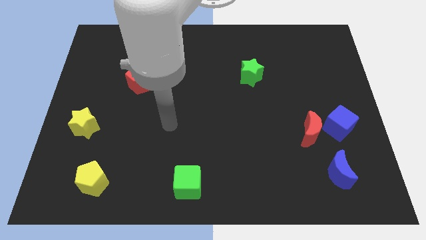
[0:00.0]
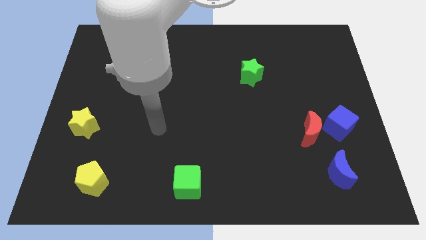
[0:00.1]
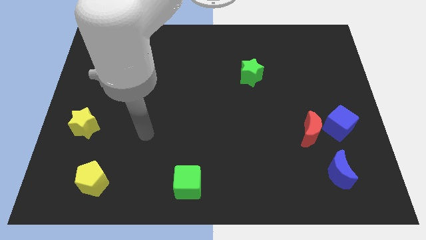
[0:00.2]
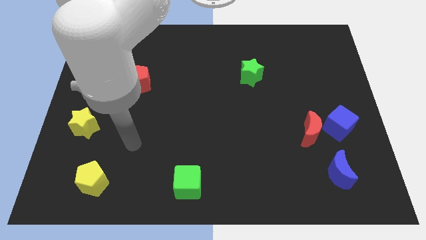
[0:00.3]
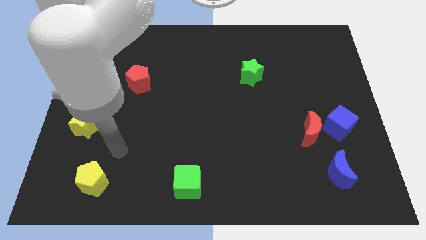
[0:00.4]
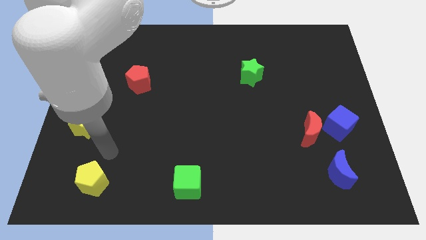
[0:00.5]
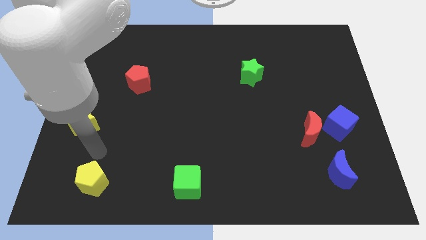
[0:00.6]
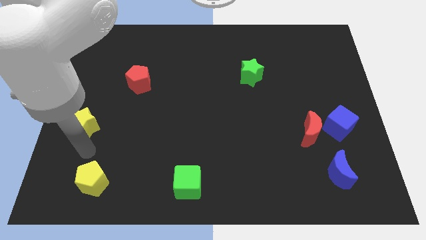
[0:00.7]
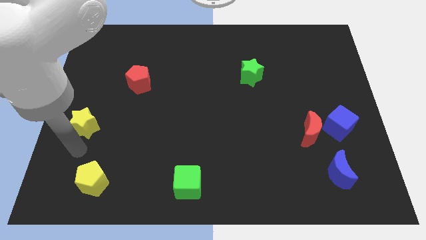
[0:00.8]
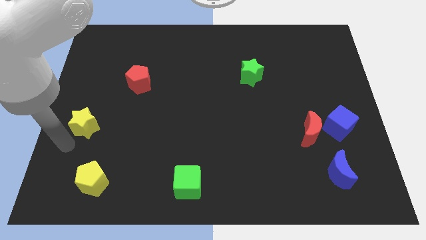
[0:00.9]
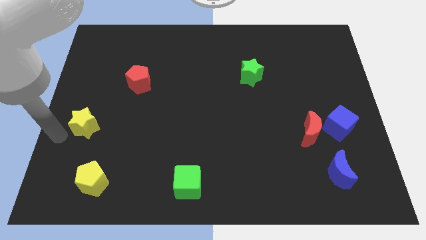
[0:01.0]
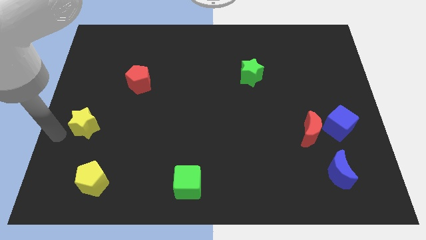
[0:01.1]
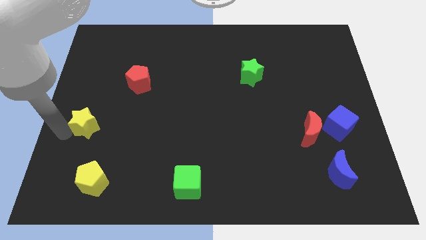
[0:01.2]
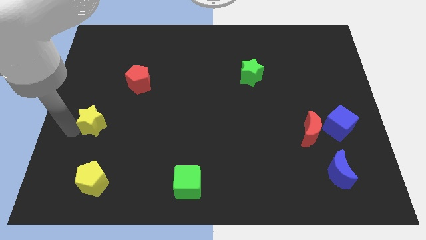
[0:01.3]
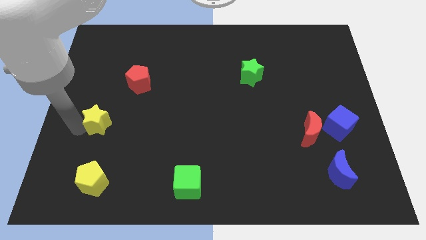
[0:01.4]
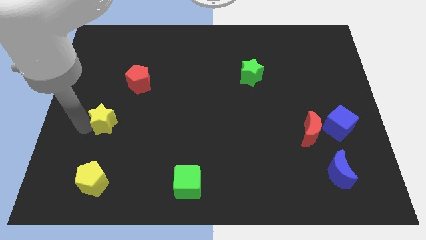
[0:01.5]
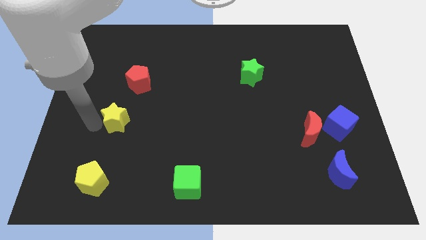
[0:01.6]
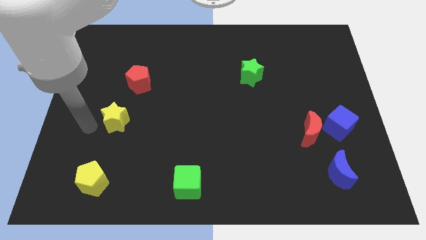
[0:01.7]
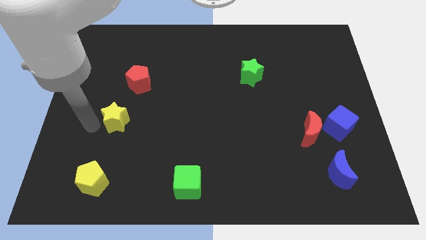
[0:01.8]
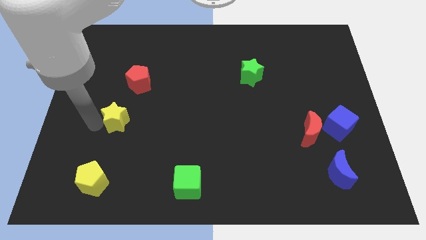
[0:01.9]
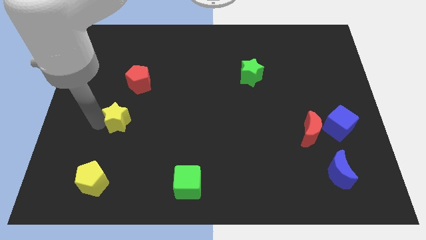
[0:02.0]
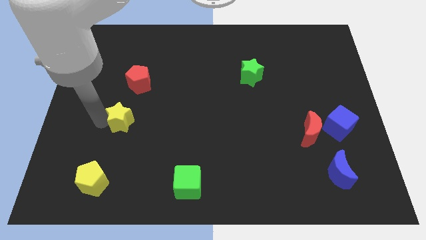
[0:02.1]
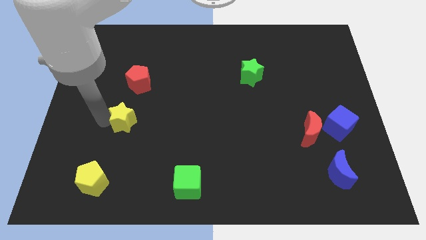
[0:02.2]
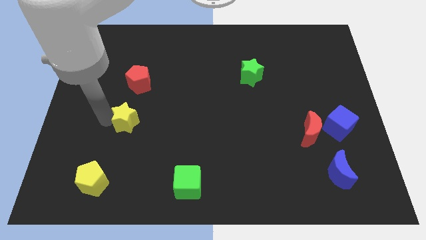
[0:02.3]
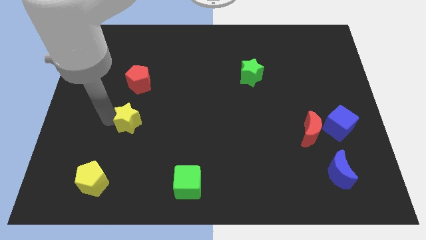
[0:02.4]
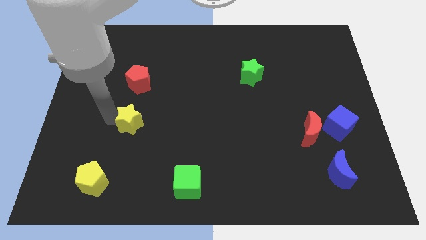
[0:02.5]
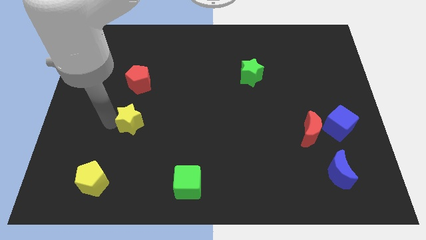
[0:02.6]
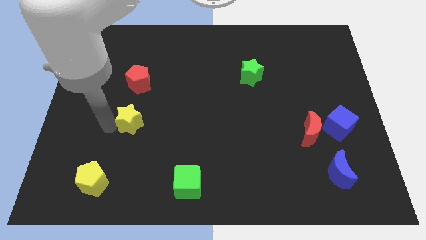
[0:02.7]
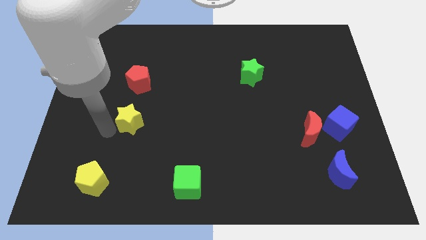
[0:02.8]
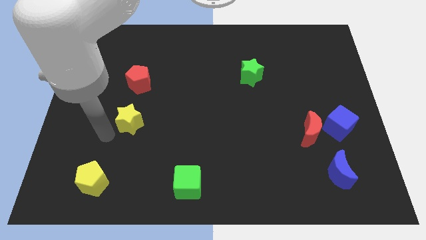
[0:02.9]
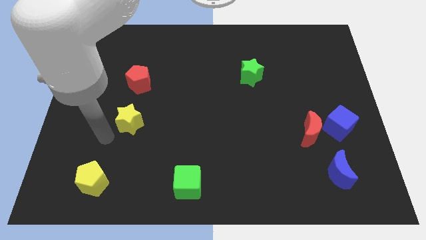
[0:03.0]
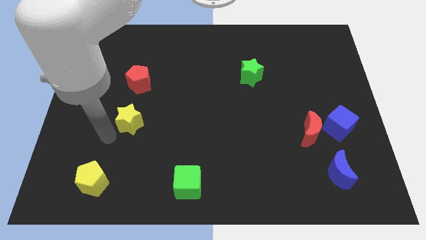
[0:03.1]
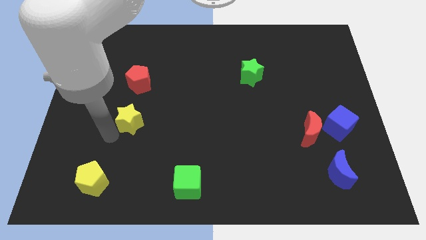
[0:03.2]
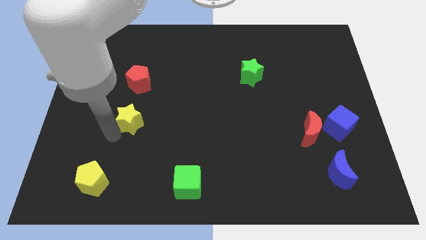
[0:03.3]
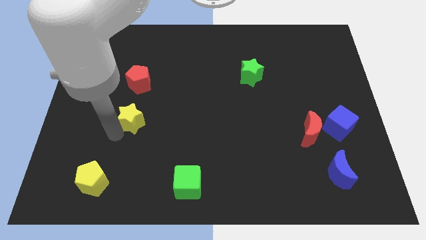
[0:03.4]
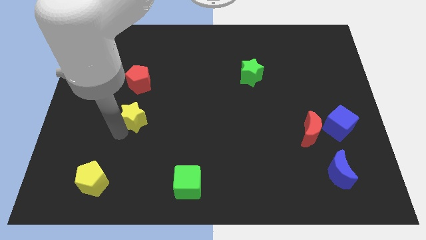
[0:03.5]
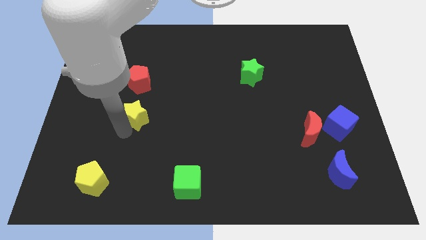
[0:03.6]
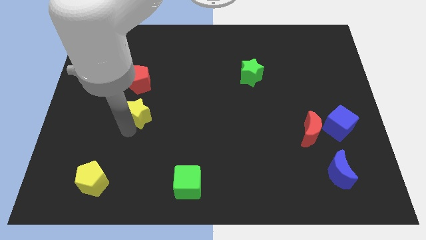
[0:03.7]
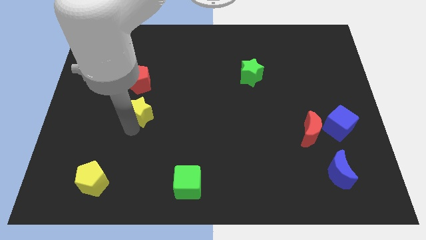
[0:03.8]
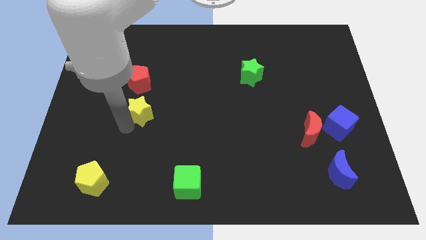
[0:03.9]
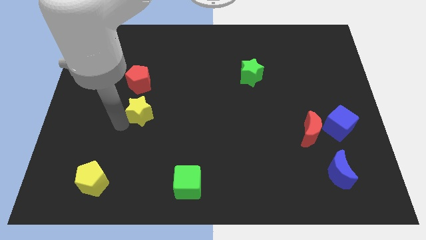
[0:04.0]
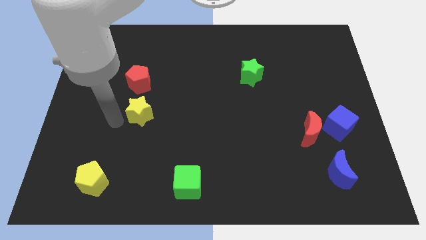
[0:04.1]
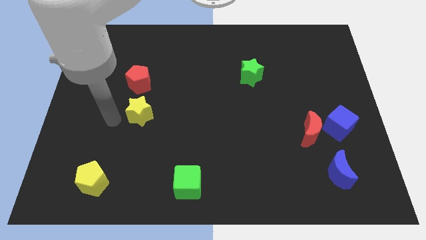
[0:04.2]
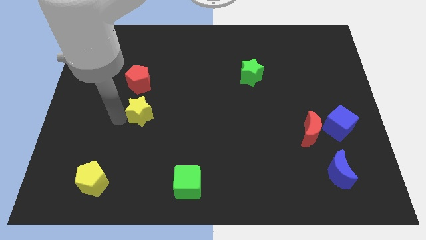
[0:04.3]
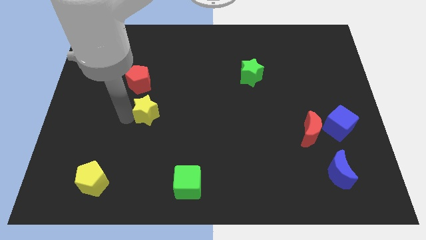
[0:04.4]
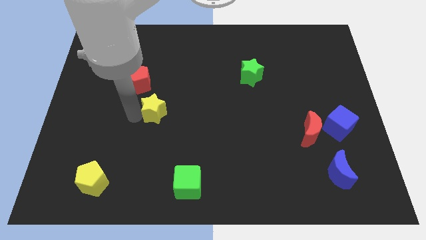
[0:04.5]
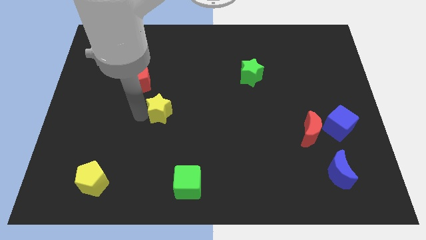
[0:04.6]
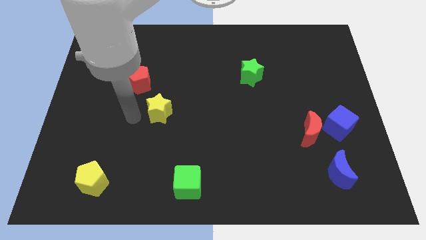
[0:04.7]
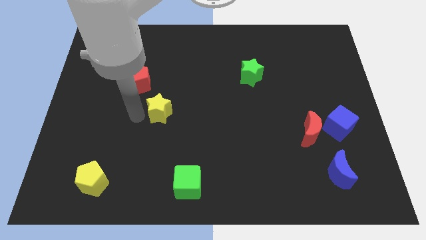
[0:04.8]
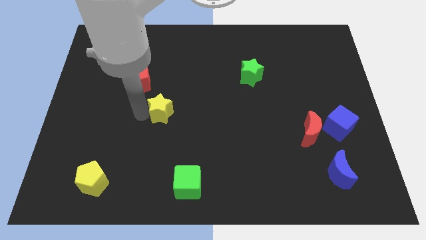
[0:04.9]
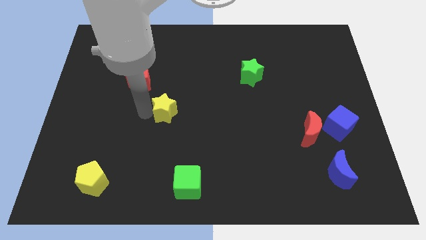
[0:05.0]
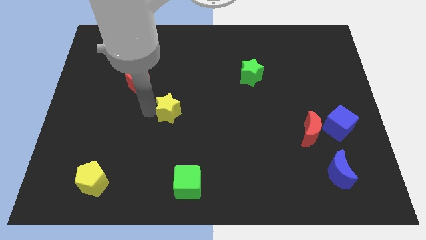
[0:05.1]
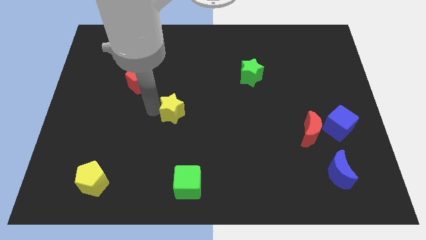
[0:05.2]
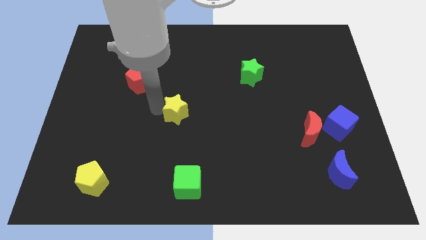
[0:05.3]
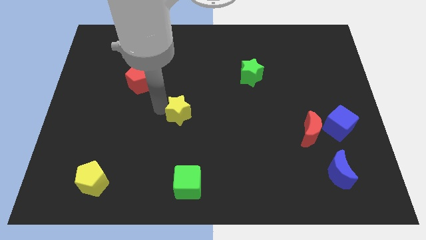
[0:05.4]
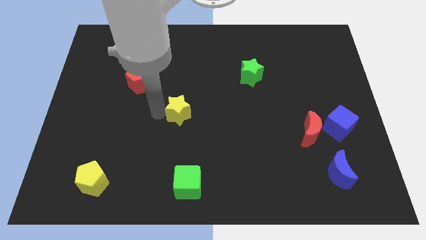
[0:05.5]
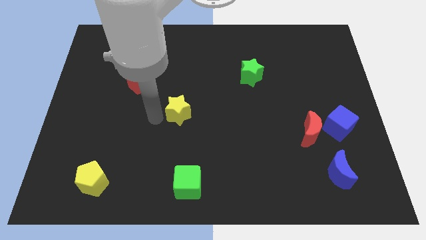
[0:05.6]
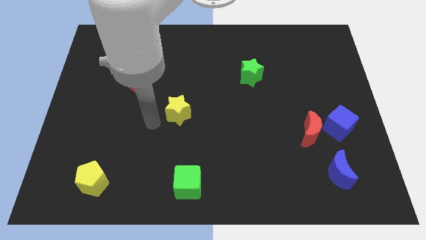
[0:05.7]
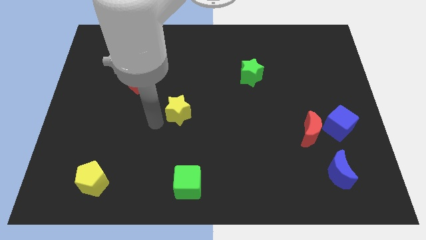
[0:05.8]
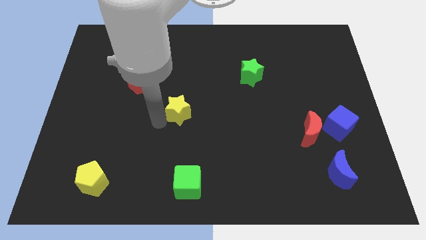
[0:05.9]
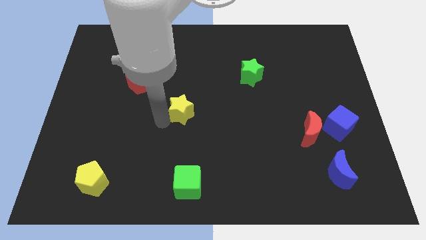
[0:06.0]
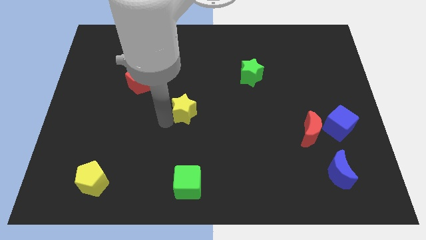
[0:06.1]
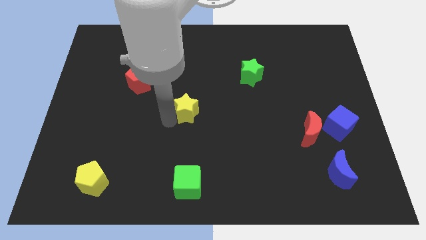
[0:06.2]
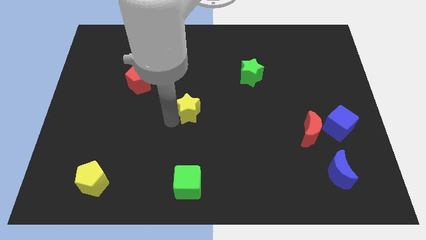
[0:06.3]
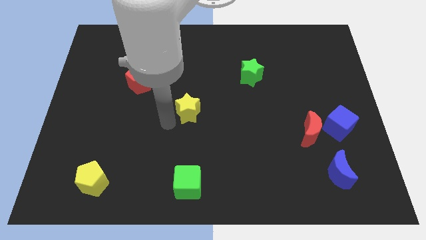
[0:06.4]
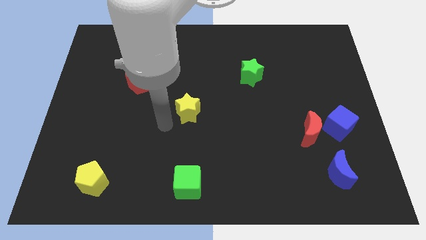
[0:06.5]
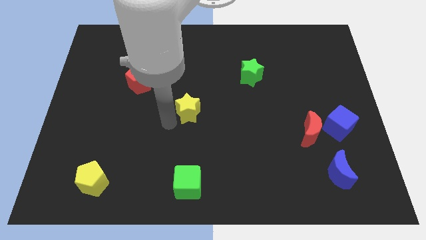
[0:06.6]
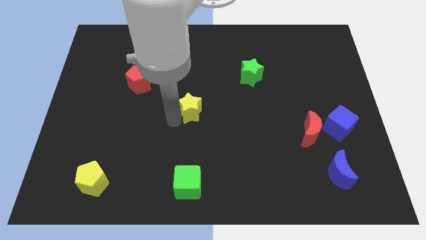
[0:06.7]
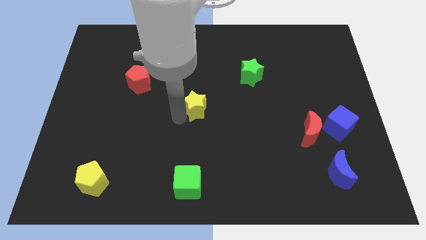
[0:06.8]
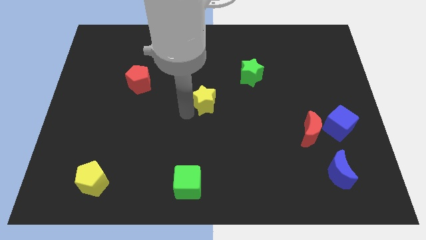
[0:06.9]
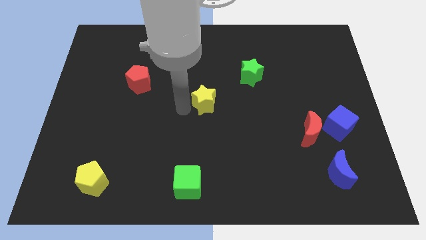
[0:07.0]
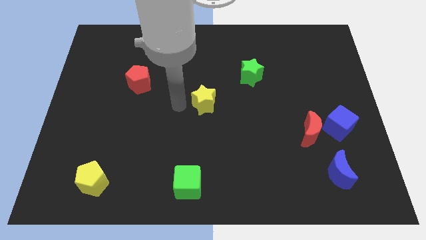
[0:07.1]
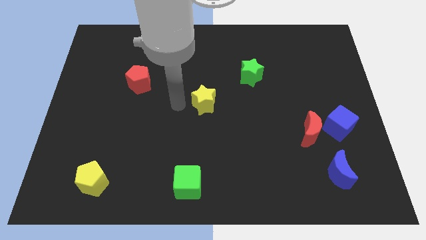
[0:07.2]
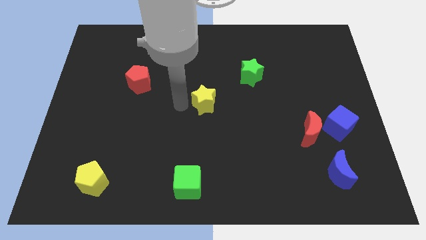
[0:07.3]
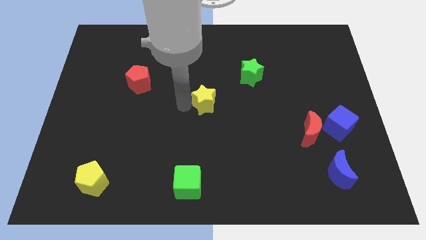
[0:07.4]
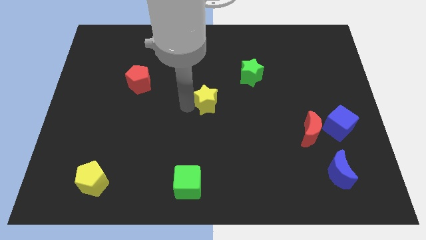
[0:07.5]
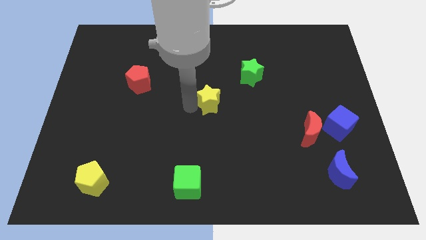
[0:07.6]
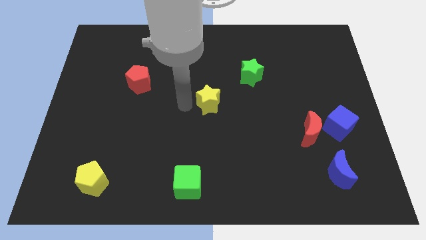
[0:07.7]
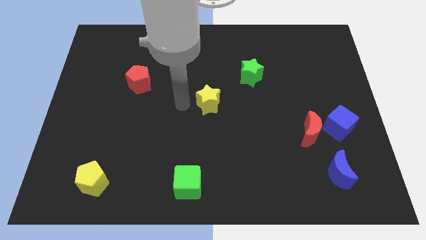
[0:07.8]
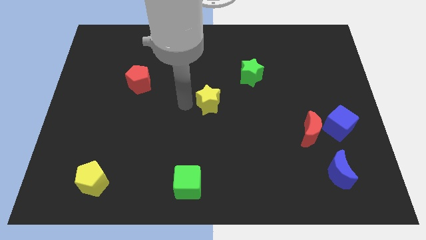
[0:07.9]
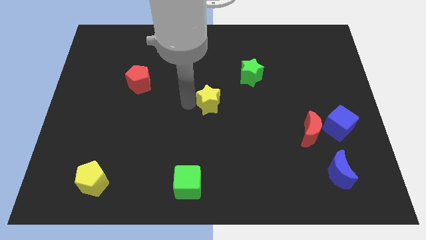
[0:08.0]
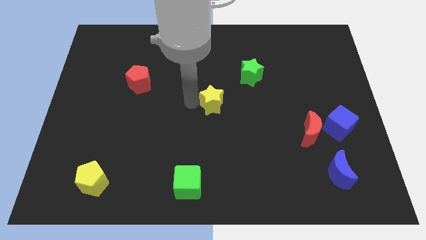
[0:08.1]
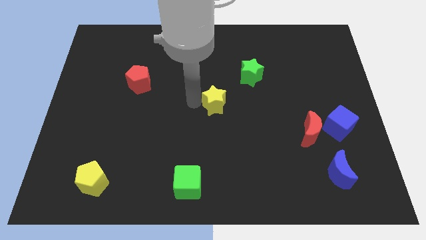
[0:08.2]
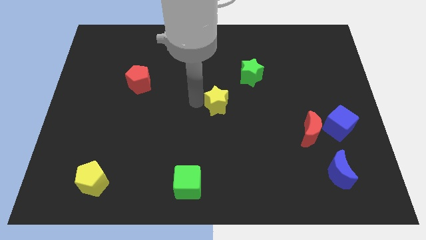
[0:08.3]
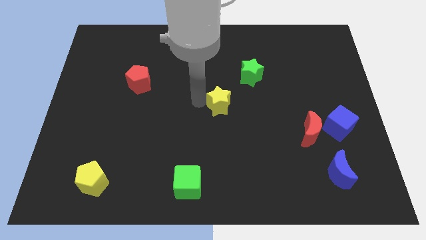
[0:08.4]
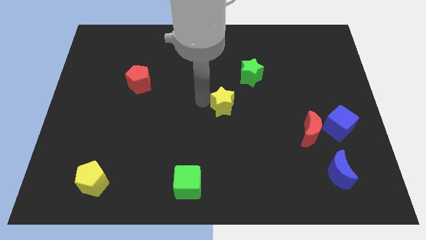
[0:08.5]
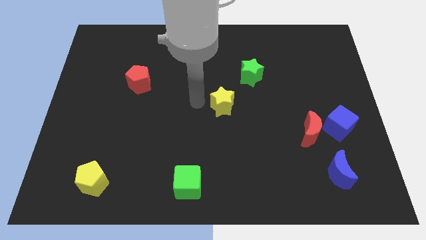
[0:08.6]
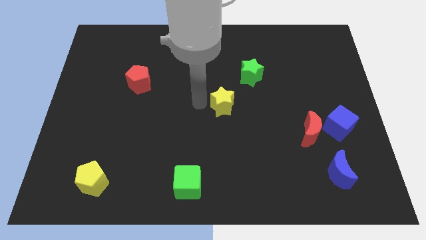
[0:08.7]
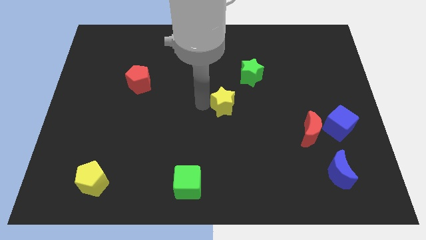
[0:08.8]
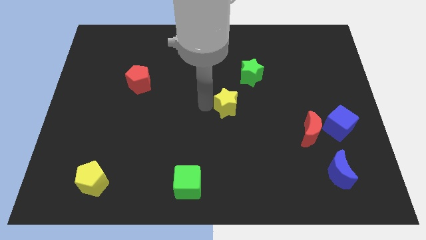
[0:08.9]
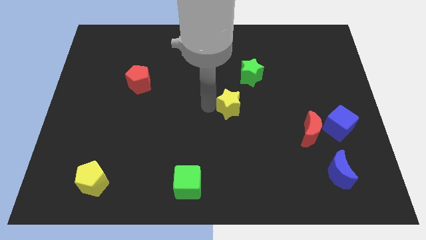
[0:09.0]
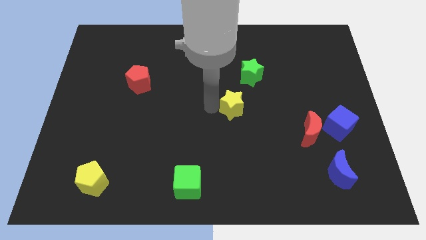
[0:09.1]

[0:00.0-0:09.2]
move the yellow star below the green star
